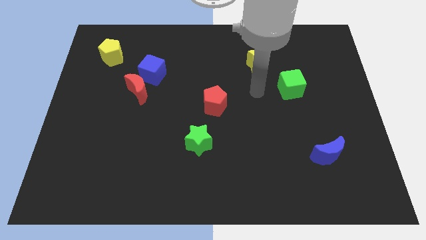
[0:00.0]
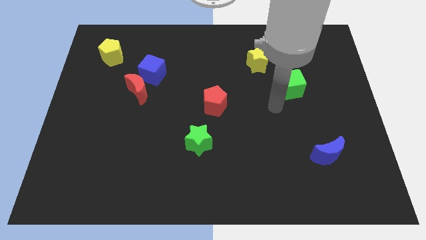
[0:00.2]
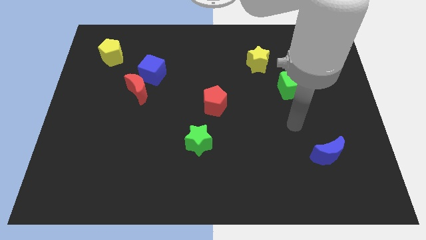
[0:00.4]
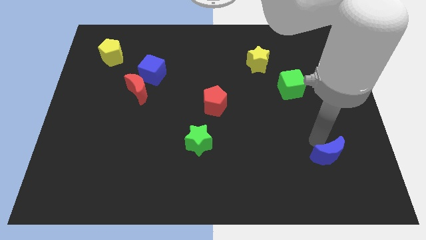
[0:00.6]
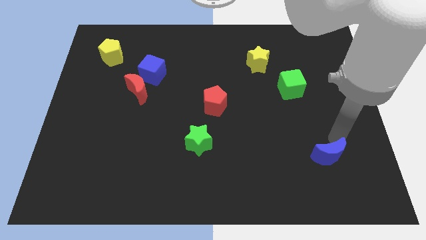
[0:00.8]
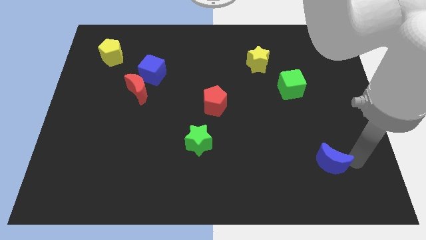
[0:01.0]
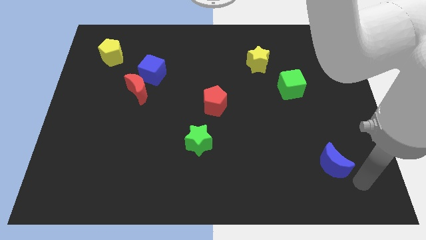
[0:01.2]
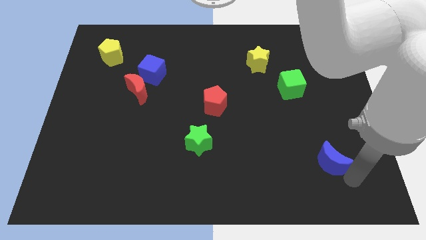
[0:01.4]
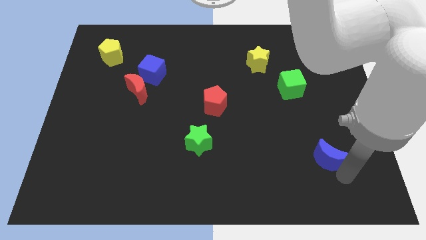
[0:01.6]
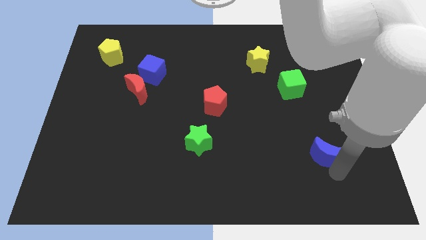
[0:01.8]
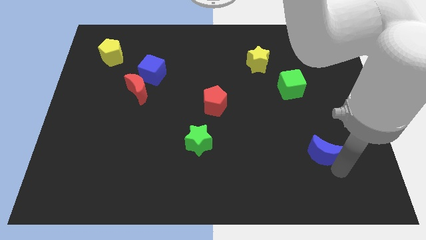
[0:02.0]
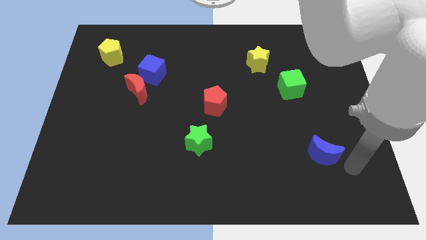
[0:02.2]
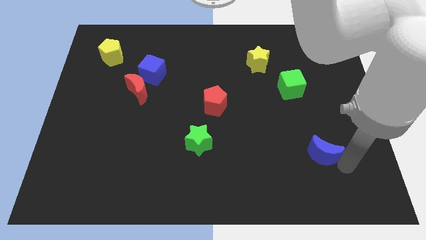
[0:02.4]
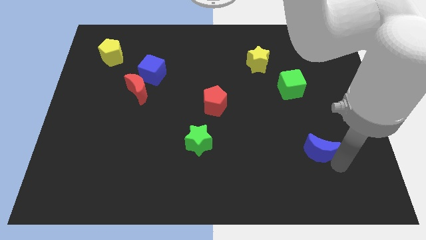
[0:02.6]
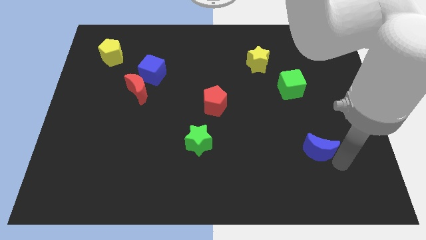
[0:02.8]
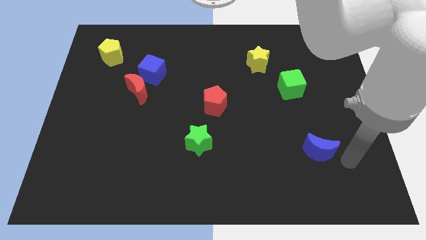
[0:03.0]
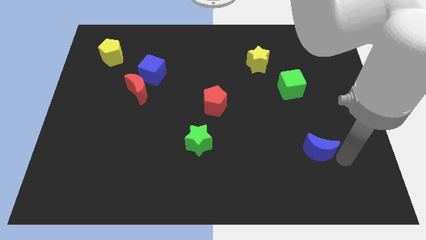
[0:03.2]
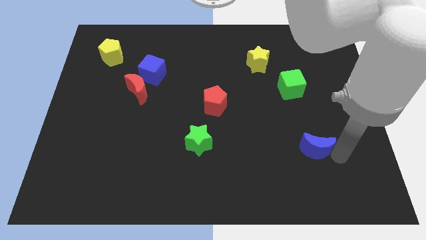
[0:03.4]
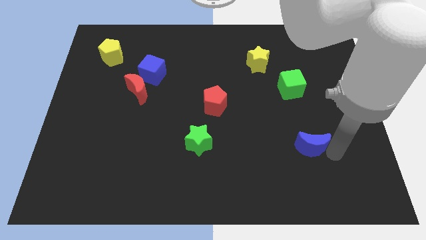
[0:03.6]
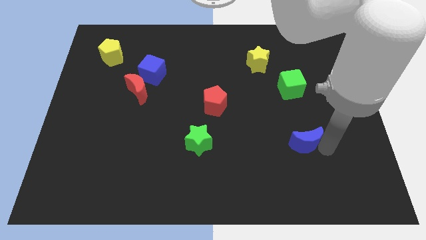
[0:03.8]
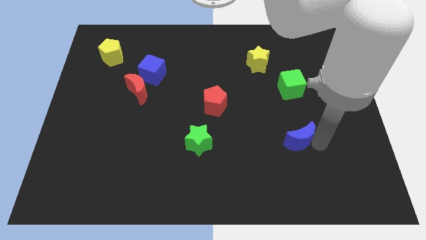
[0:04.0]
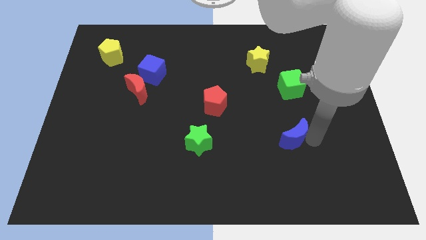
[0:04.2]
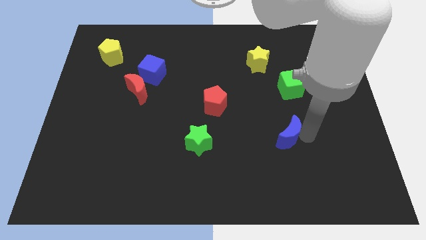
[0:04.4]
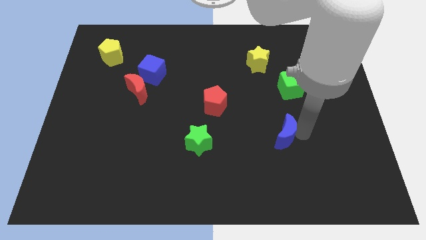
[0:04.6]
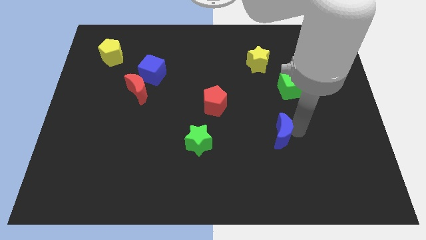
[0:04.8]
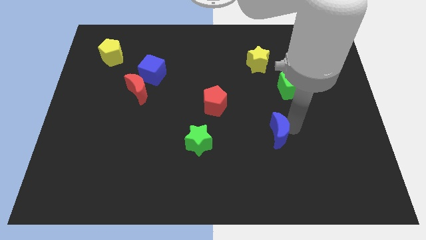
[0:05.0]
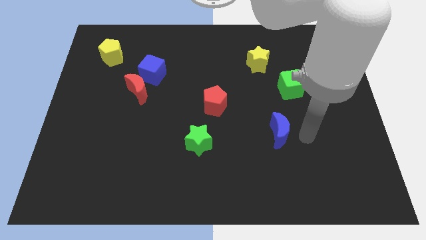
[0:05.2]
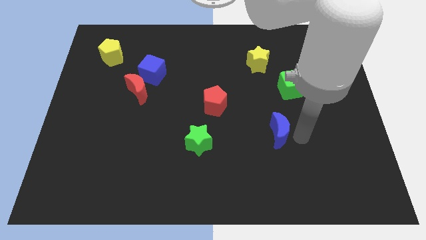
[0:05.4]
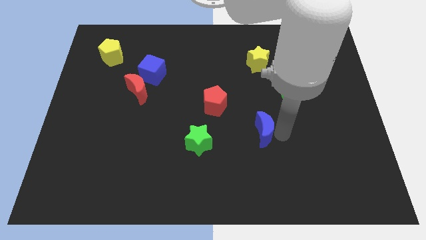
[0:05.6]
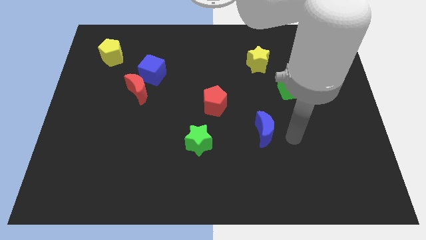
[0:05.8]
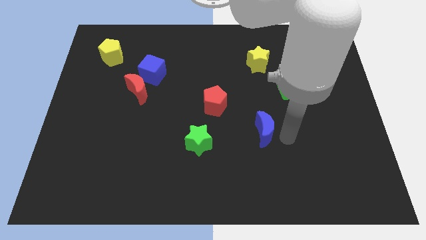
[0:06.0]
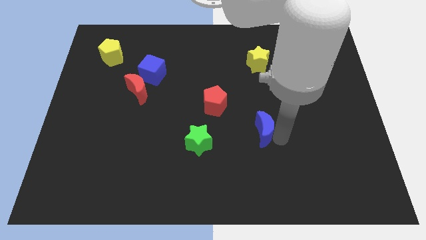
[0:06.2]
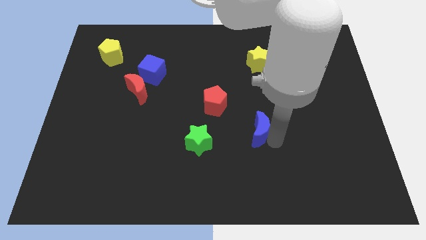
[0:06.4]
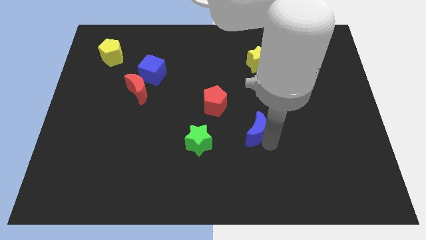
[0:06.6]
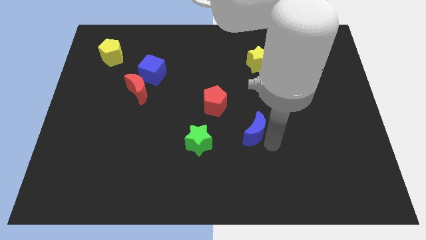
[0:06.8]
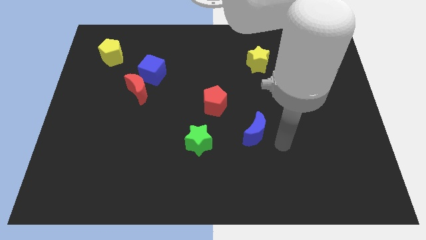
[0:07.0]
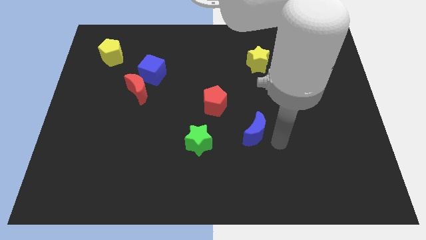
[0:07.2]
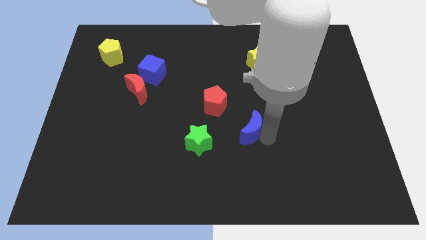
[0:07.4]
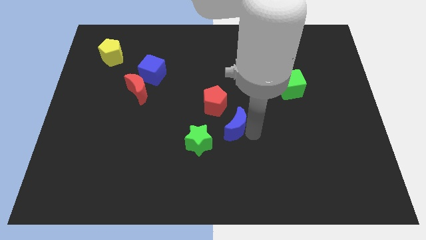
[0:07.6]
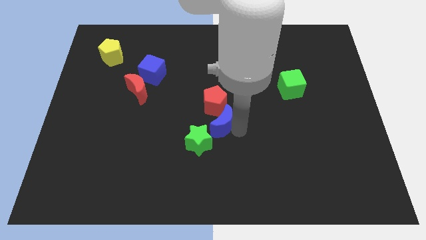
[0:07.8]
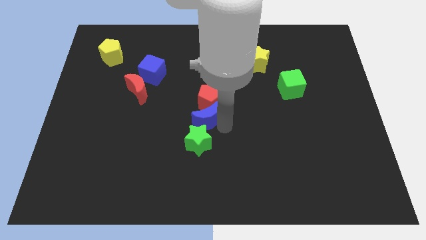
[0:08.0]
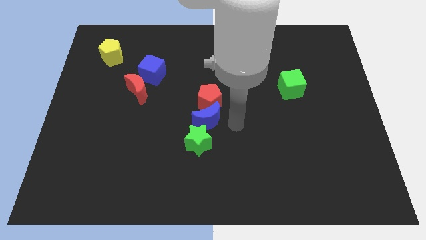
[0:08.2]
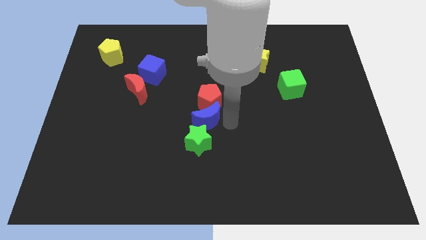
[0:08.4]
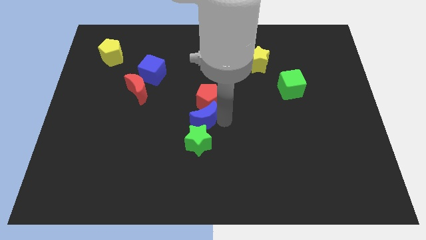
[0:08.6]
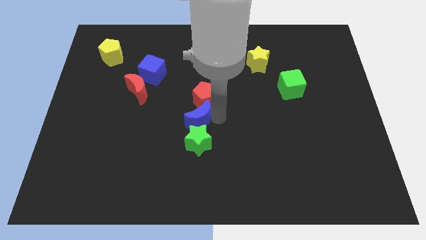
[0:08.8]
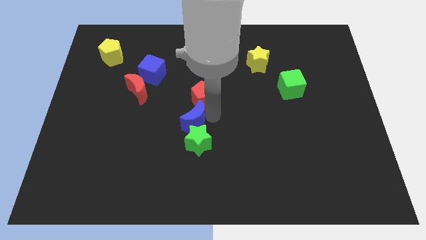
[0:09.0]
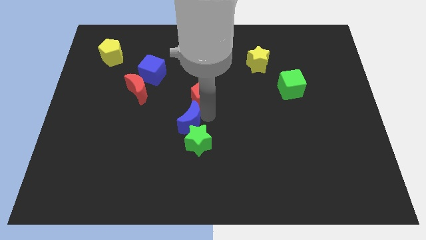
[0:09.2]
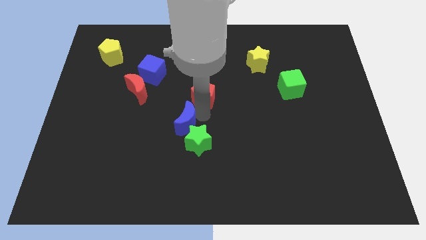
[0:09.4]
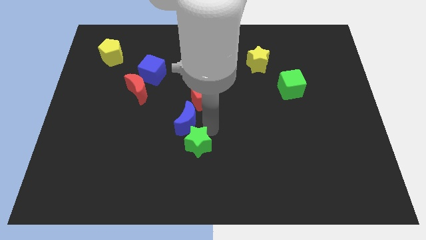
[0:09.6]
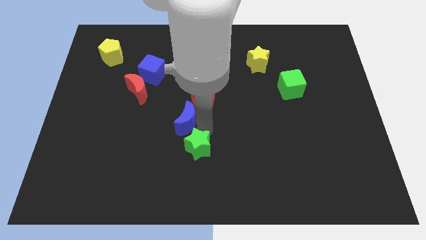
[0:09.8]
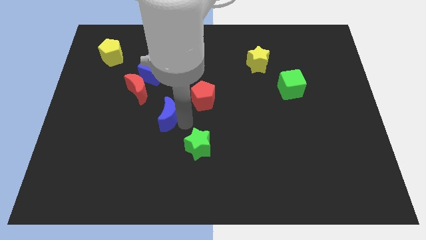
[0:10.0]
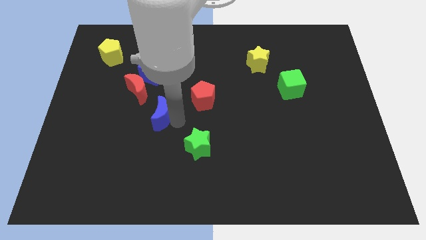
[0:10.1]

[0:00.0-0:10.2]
put the blue moon below the blue cube

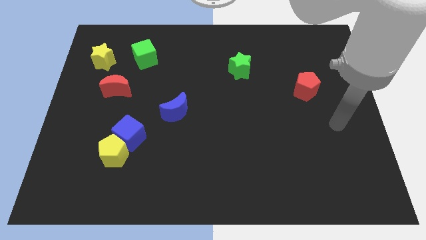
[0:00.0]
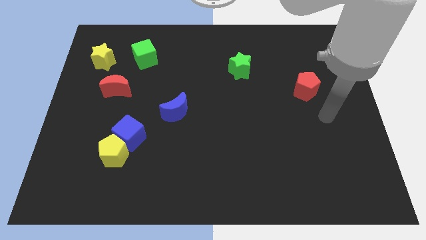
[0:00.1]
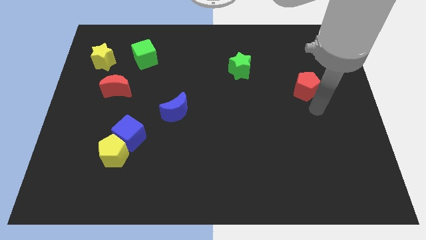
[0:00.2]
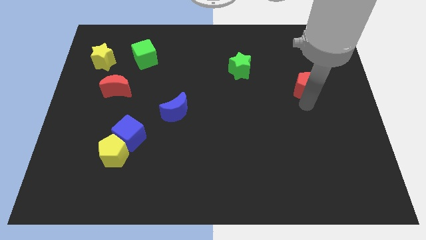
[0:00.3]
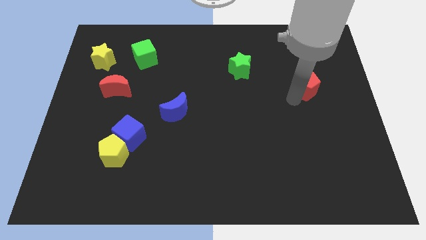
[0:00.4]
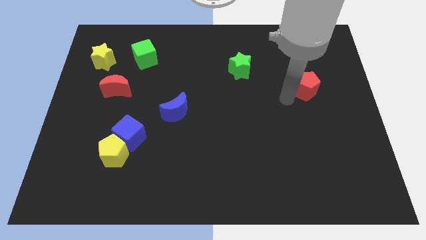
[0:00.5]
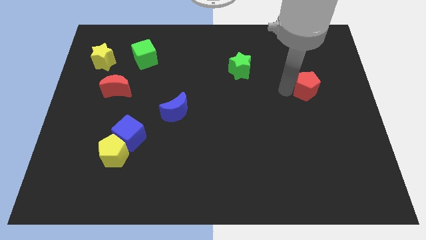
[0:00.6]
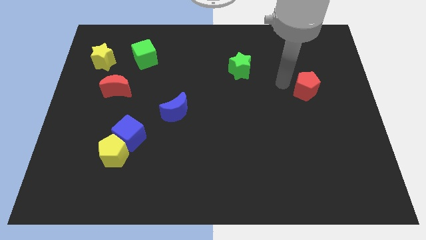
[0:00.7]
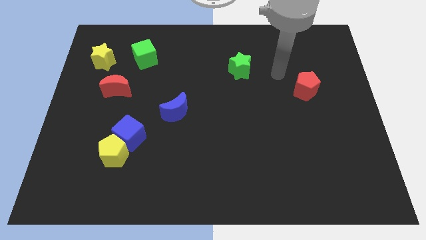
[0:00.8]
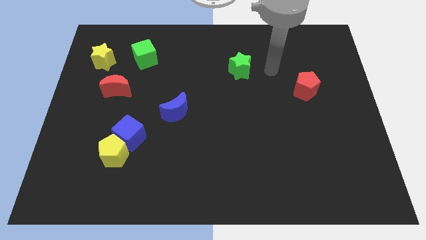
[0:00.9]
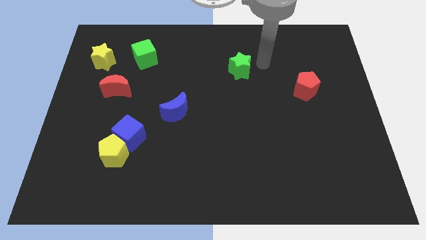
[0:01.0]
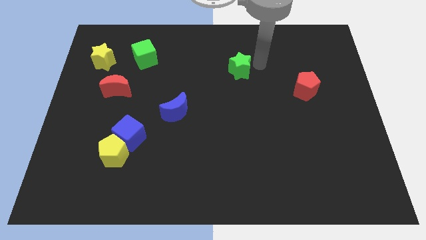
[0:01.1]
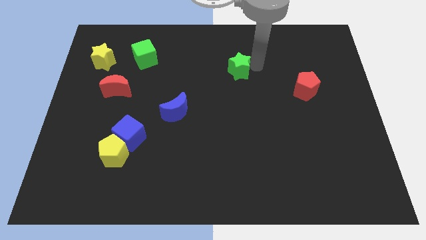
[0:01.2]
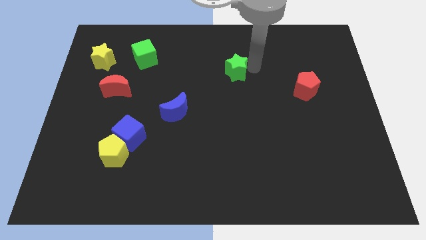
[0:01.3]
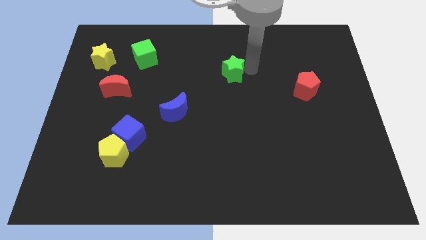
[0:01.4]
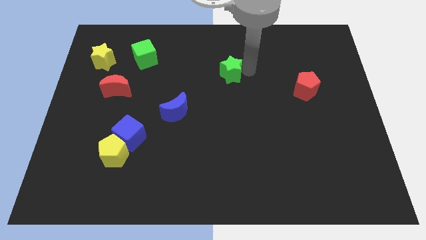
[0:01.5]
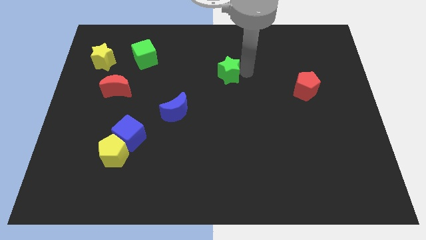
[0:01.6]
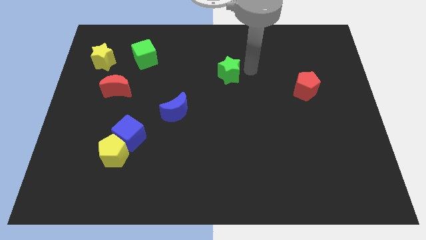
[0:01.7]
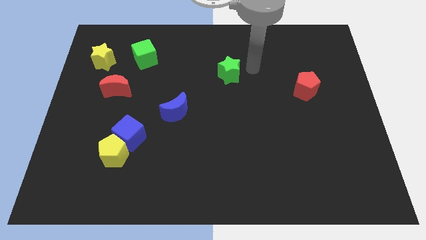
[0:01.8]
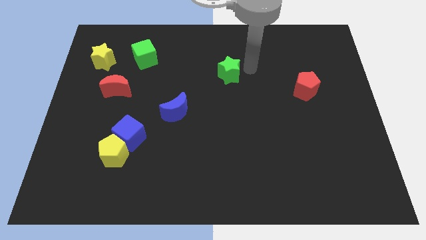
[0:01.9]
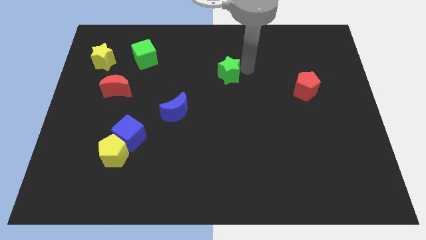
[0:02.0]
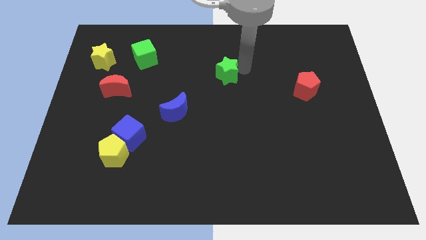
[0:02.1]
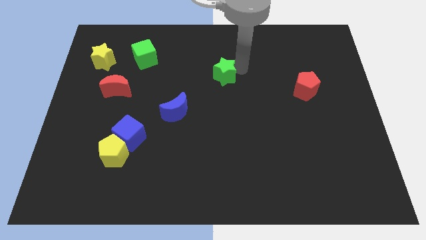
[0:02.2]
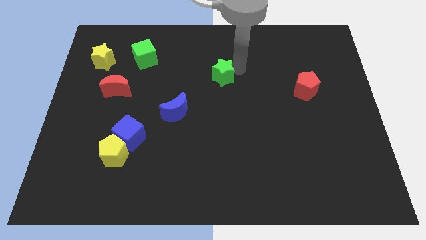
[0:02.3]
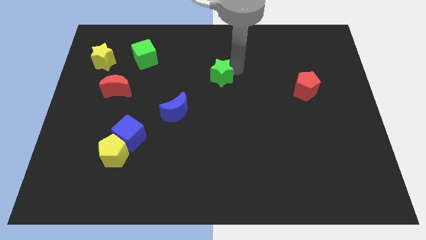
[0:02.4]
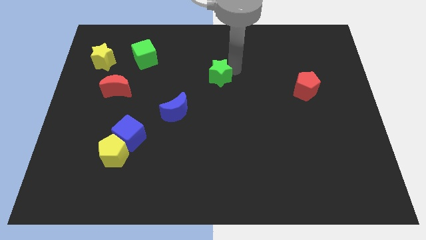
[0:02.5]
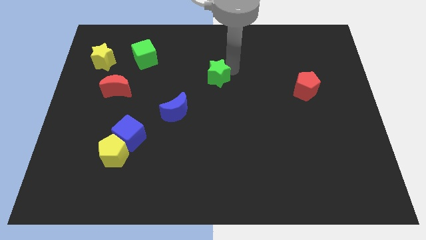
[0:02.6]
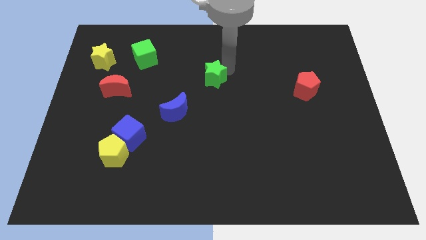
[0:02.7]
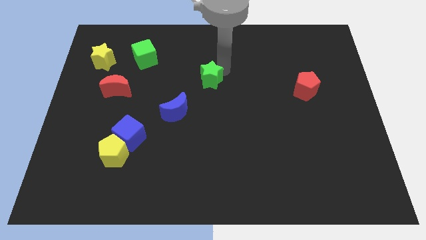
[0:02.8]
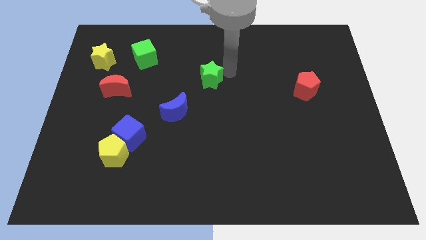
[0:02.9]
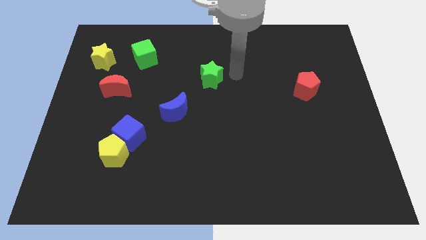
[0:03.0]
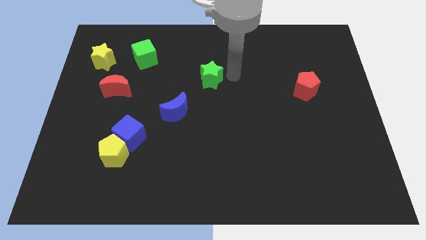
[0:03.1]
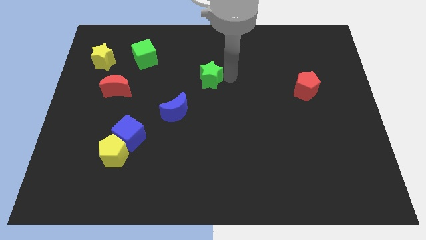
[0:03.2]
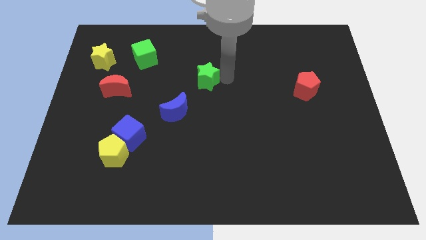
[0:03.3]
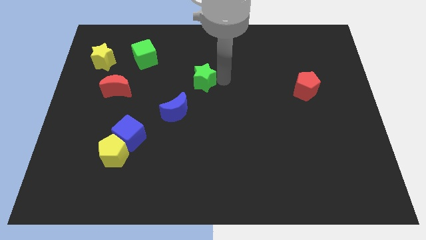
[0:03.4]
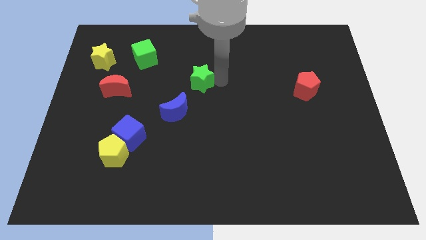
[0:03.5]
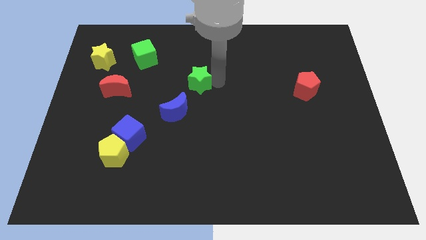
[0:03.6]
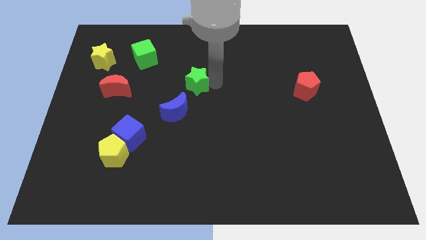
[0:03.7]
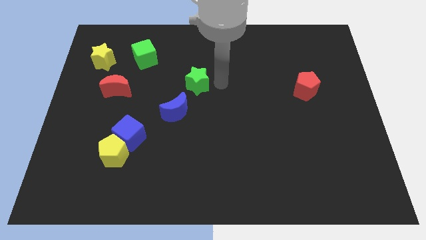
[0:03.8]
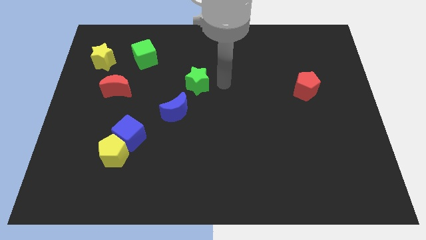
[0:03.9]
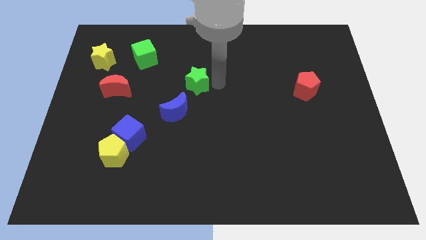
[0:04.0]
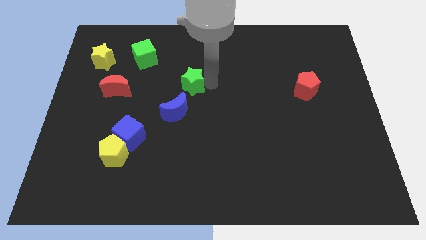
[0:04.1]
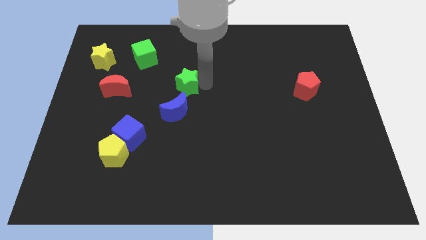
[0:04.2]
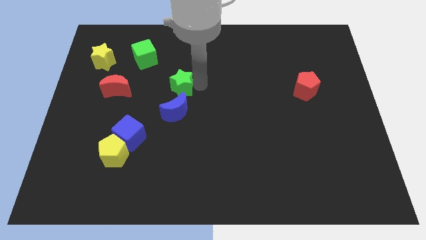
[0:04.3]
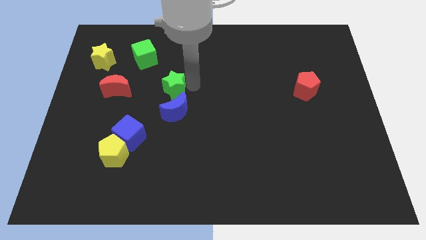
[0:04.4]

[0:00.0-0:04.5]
slide the green star to the top left of the blue moon
